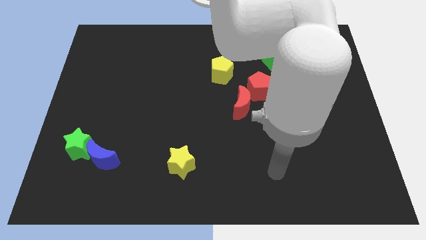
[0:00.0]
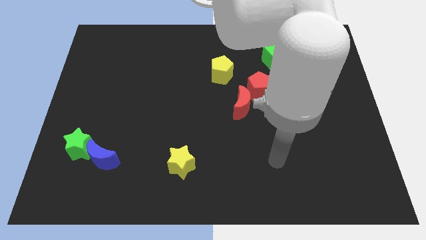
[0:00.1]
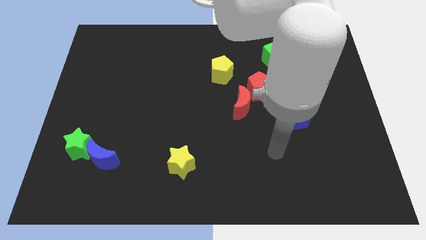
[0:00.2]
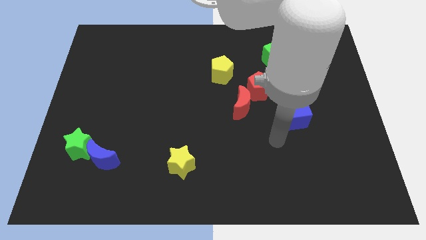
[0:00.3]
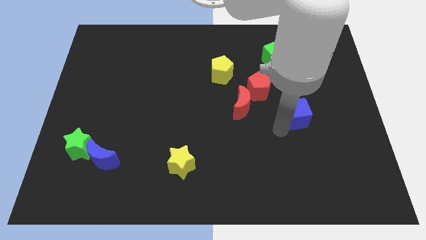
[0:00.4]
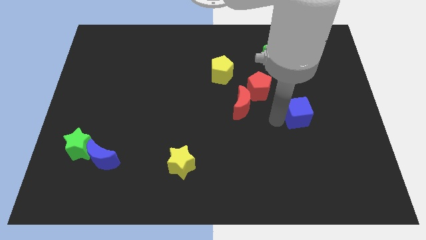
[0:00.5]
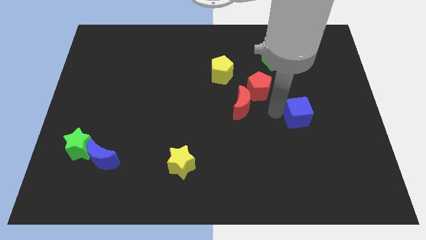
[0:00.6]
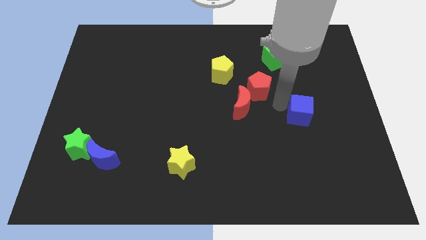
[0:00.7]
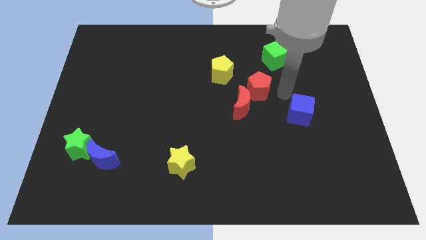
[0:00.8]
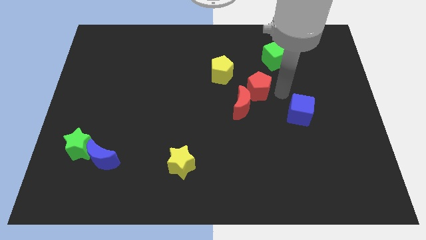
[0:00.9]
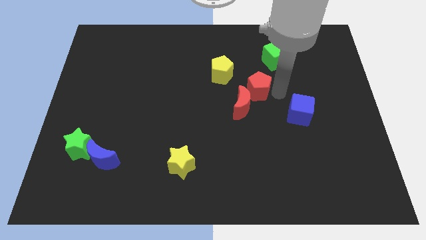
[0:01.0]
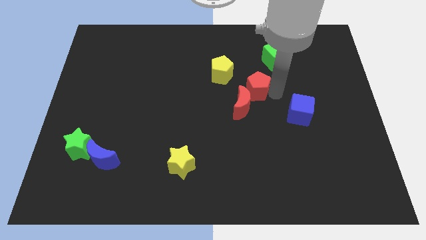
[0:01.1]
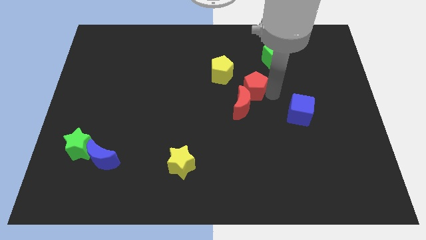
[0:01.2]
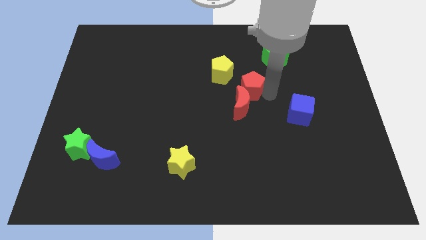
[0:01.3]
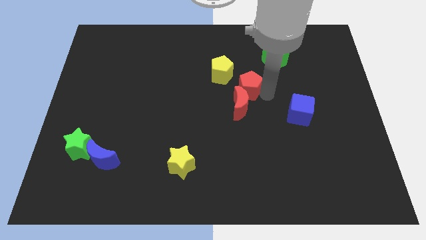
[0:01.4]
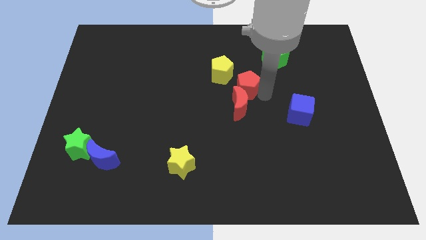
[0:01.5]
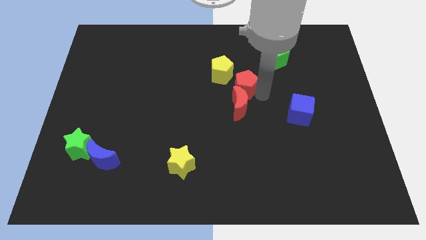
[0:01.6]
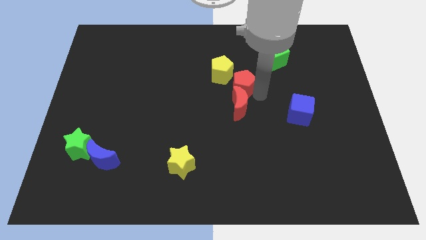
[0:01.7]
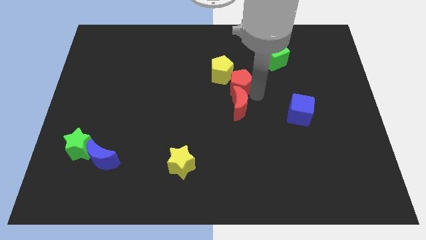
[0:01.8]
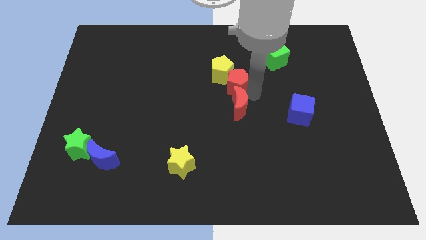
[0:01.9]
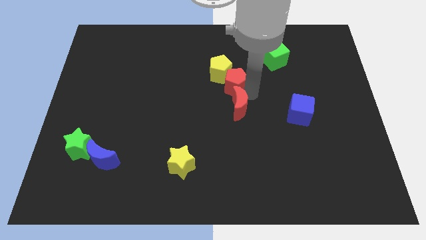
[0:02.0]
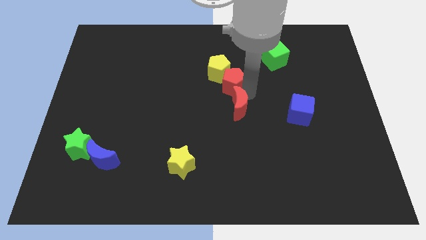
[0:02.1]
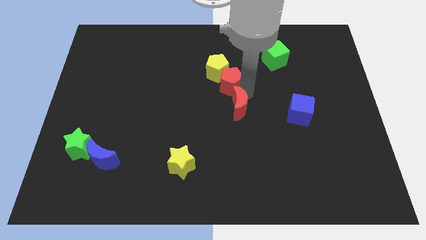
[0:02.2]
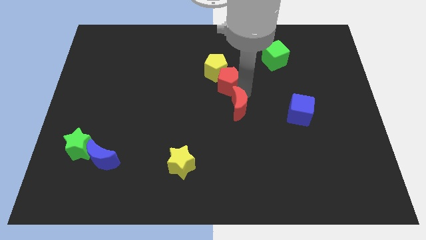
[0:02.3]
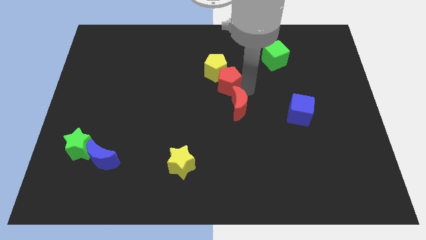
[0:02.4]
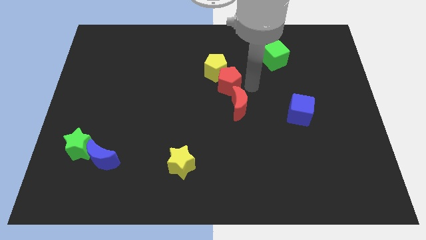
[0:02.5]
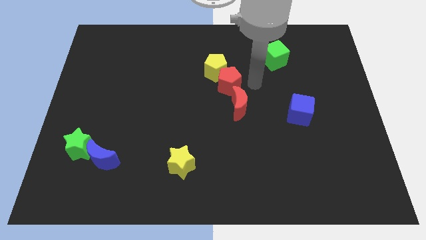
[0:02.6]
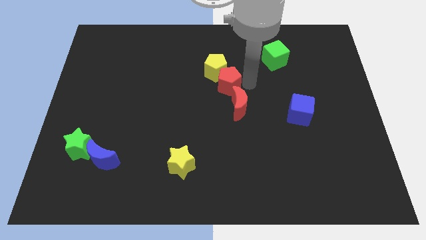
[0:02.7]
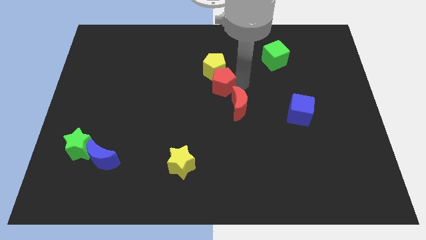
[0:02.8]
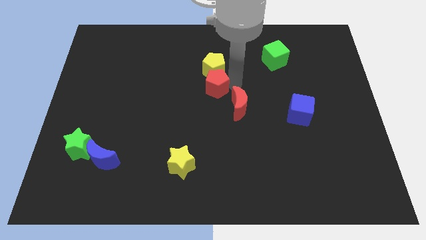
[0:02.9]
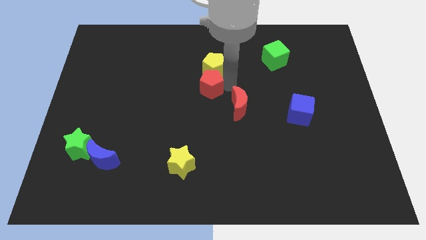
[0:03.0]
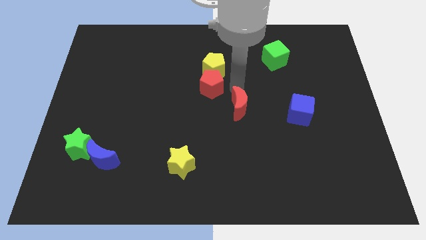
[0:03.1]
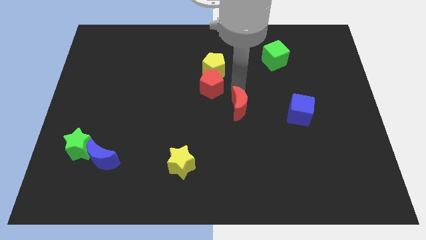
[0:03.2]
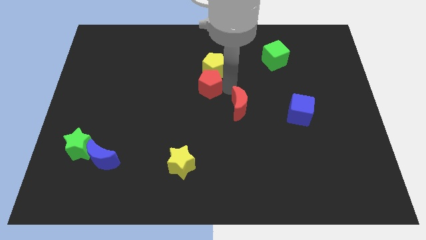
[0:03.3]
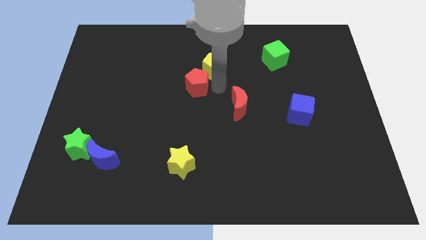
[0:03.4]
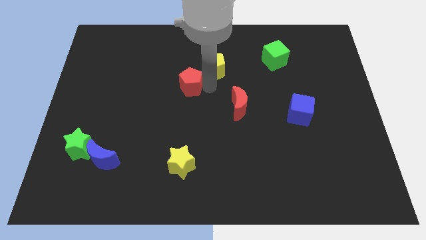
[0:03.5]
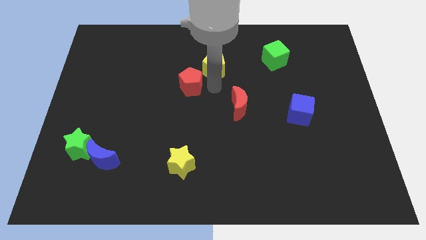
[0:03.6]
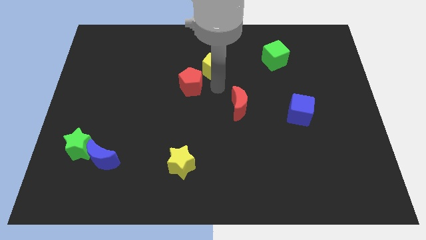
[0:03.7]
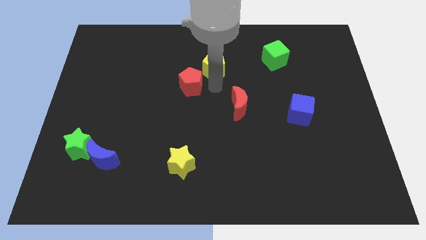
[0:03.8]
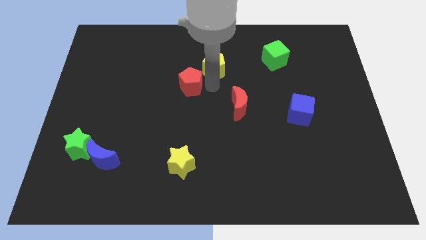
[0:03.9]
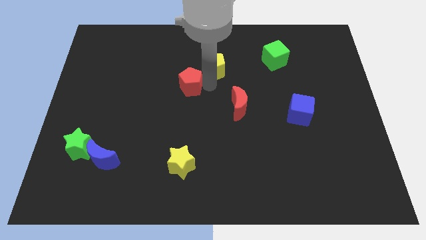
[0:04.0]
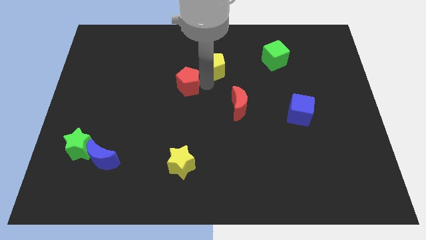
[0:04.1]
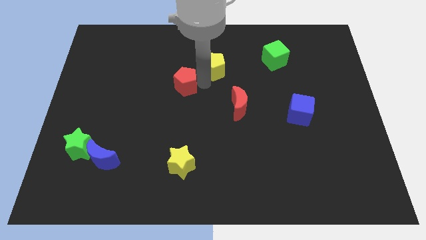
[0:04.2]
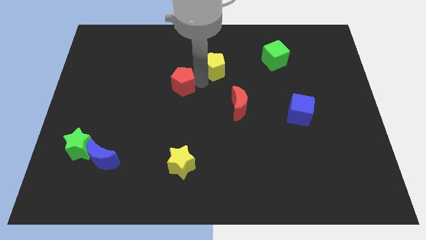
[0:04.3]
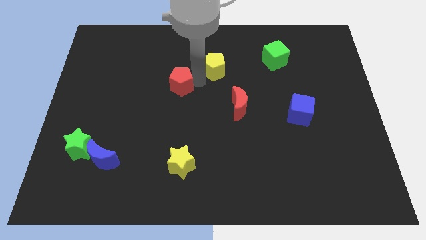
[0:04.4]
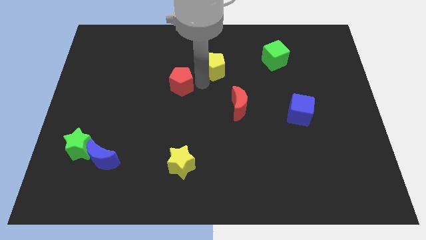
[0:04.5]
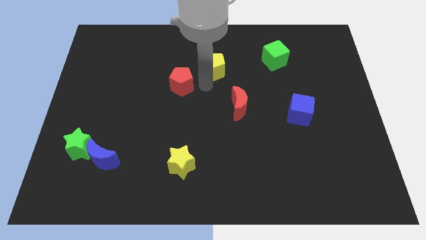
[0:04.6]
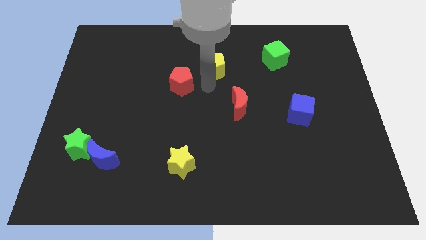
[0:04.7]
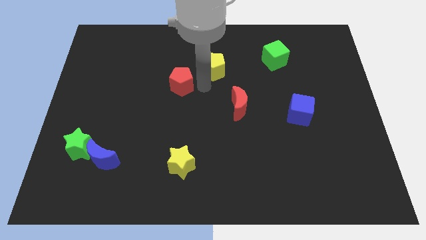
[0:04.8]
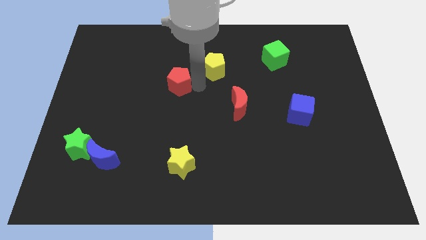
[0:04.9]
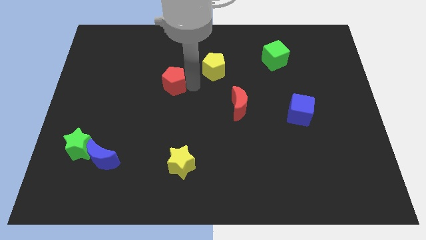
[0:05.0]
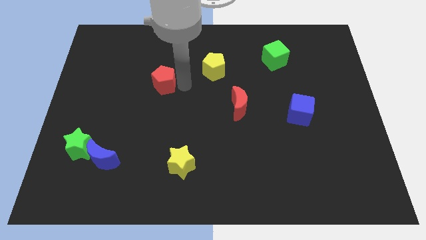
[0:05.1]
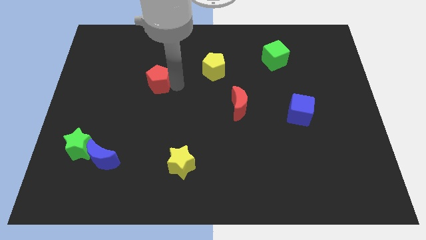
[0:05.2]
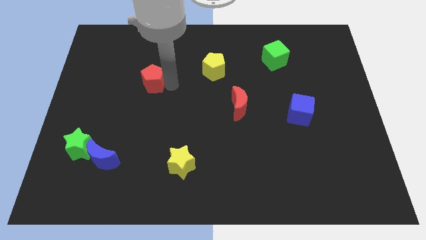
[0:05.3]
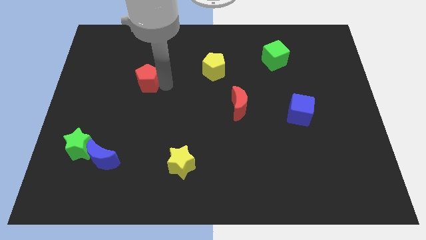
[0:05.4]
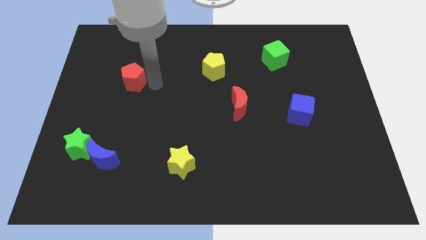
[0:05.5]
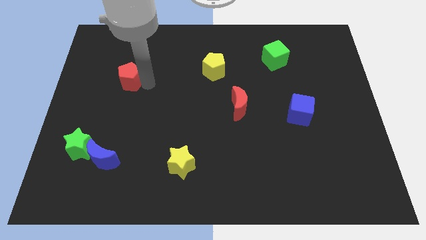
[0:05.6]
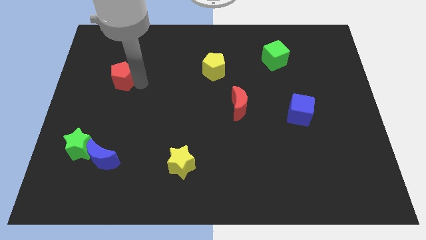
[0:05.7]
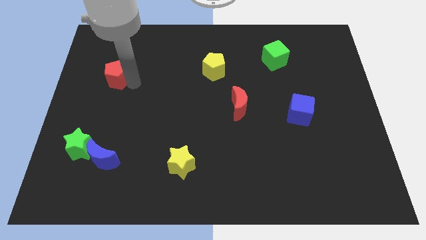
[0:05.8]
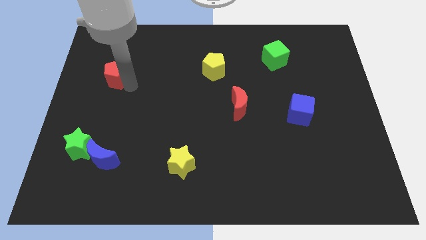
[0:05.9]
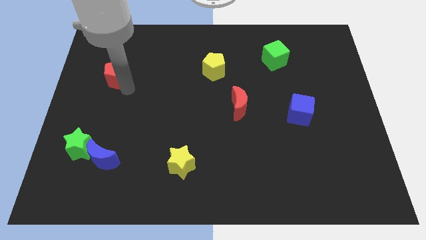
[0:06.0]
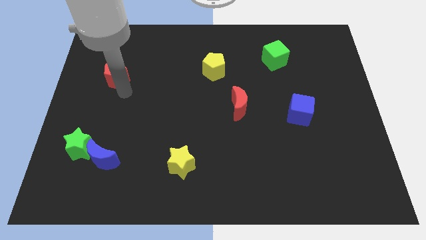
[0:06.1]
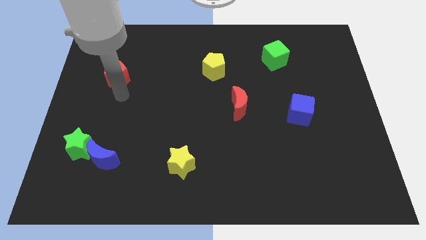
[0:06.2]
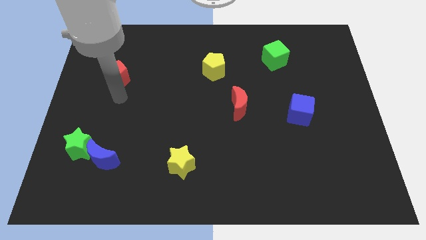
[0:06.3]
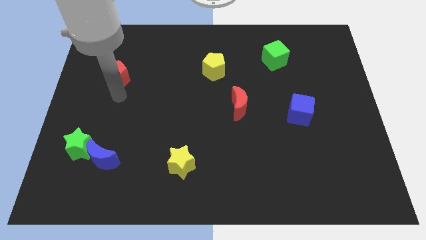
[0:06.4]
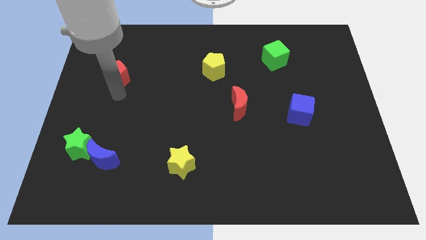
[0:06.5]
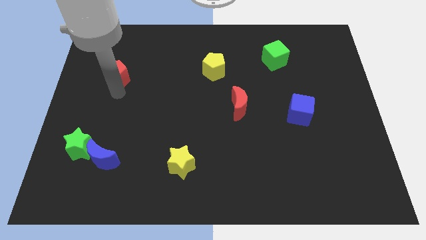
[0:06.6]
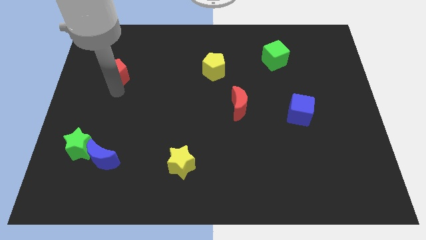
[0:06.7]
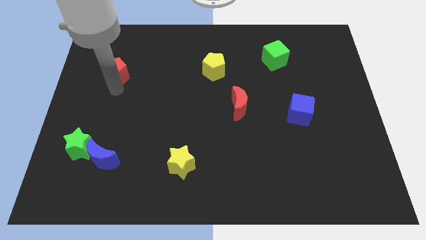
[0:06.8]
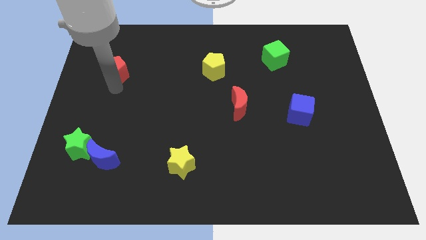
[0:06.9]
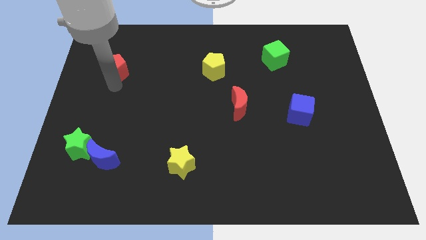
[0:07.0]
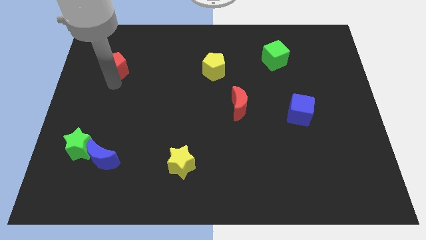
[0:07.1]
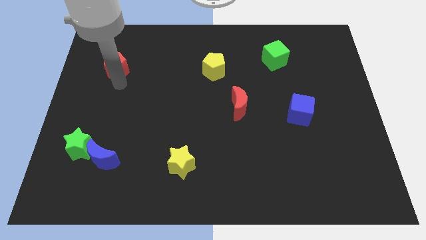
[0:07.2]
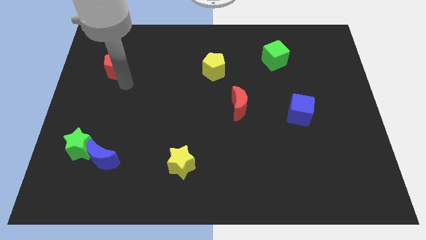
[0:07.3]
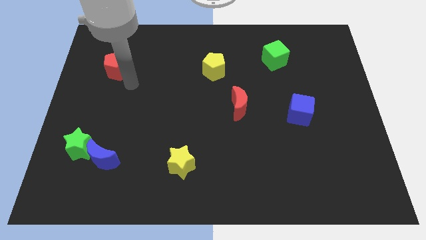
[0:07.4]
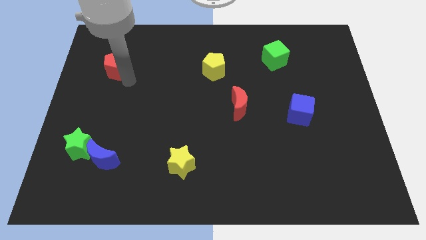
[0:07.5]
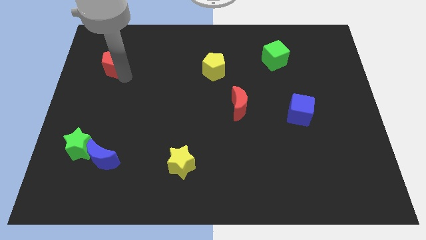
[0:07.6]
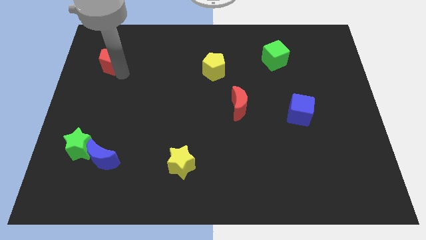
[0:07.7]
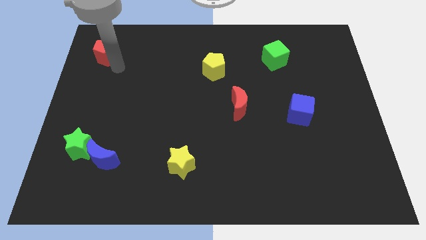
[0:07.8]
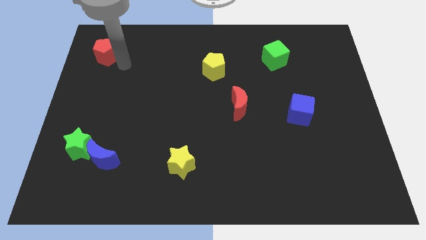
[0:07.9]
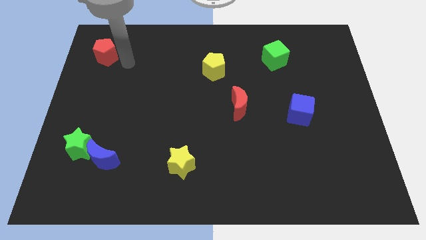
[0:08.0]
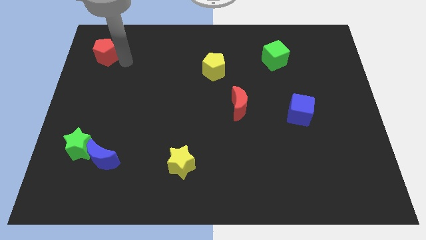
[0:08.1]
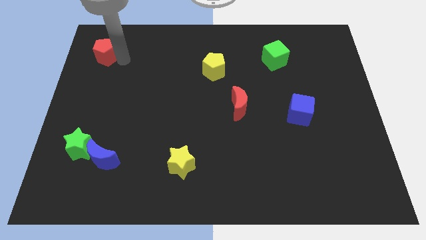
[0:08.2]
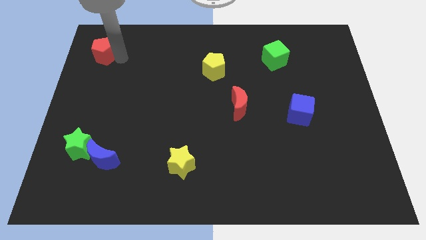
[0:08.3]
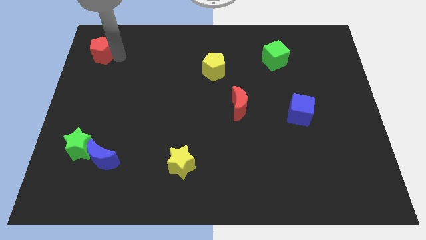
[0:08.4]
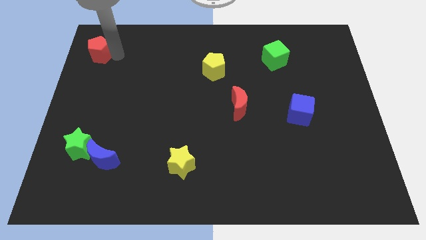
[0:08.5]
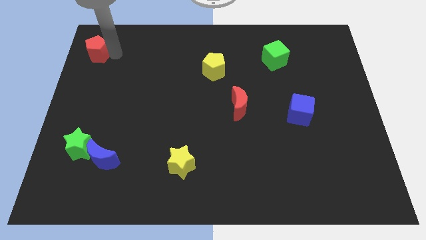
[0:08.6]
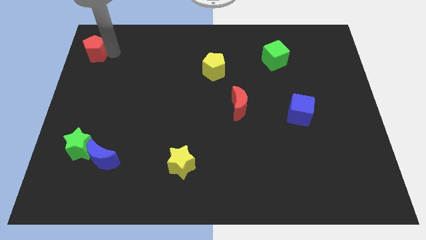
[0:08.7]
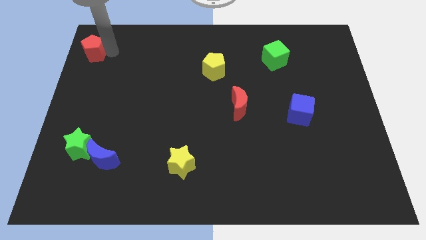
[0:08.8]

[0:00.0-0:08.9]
move the red pentagon to the top left of the board
